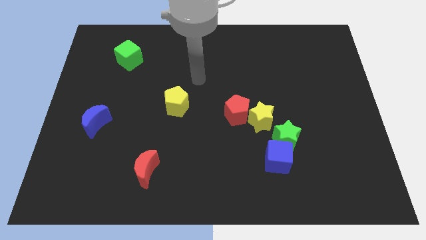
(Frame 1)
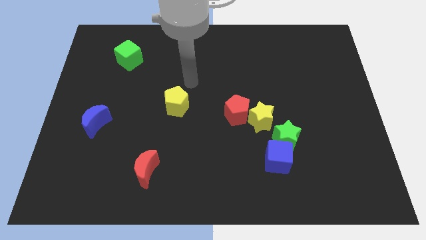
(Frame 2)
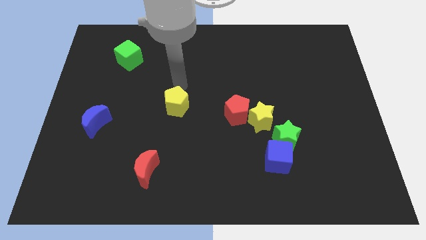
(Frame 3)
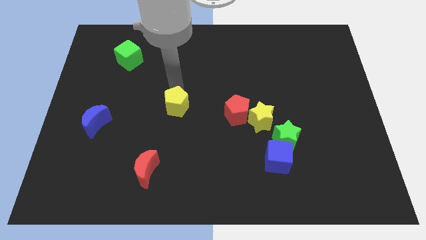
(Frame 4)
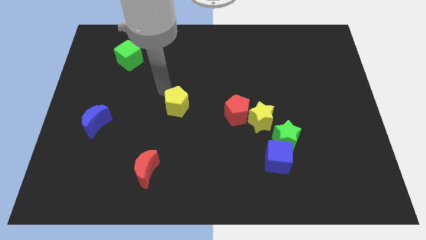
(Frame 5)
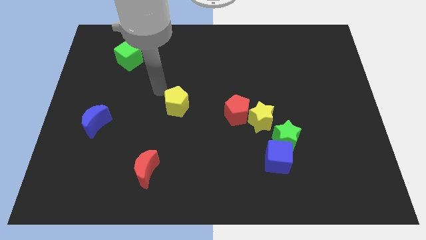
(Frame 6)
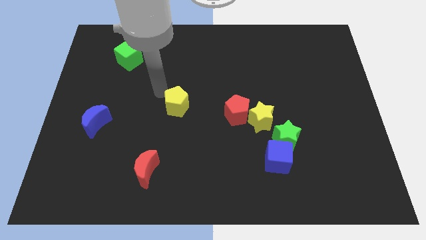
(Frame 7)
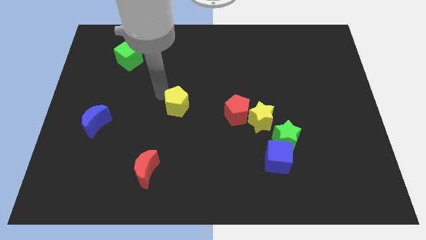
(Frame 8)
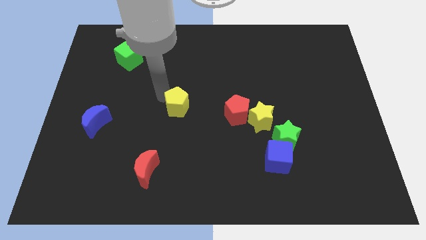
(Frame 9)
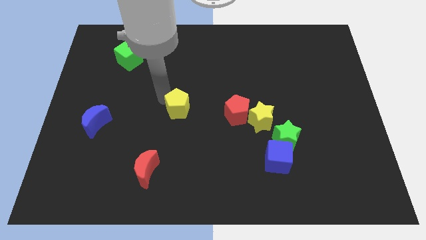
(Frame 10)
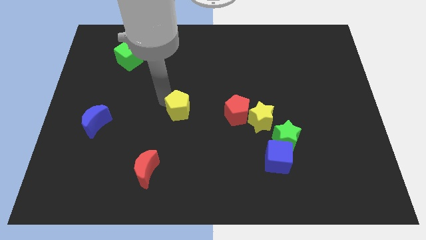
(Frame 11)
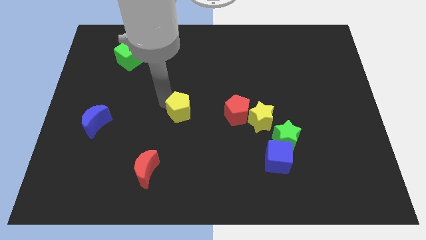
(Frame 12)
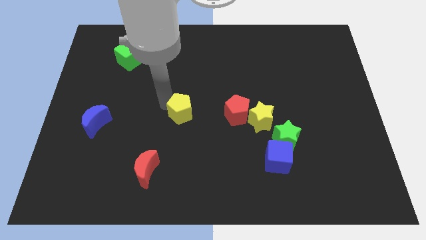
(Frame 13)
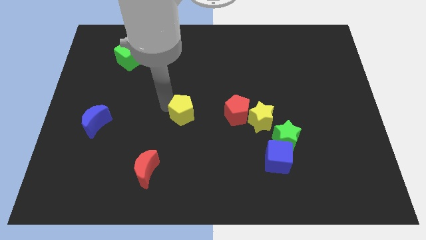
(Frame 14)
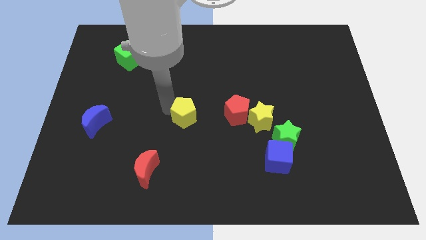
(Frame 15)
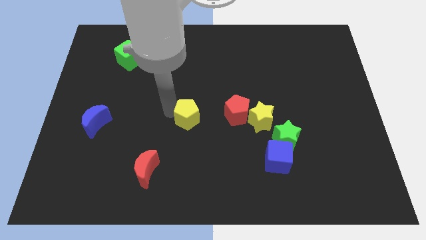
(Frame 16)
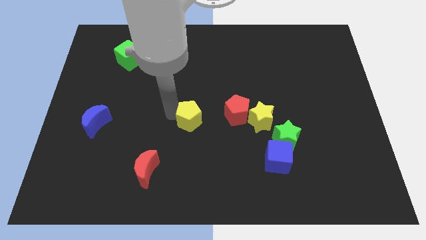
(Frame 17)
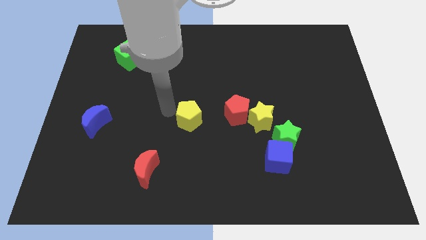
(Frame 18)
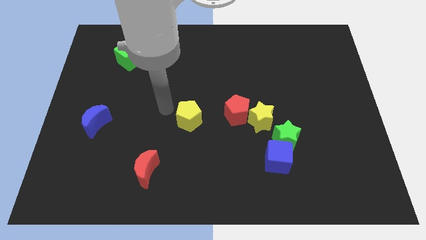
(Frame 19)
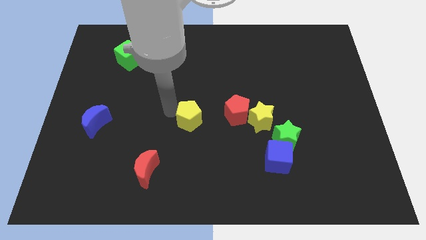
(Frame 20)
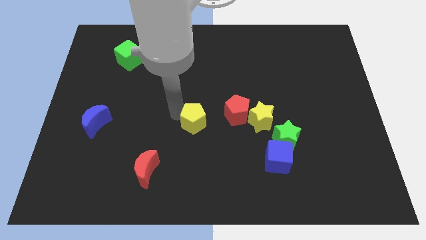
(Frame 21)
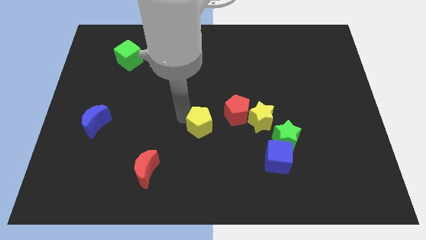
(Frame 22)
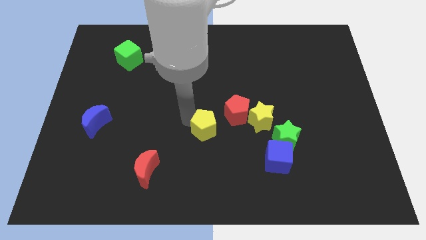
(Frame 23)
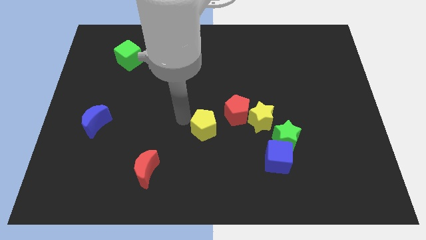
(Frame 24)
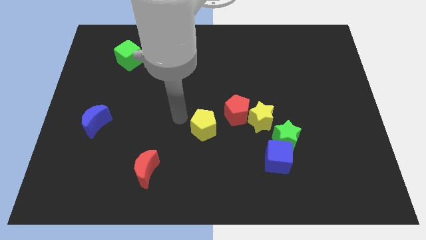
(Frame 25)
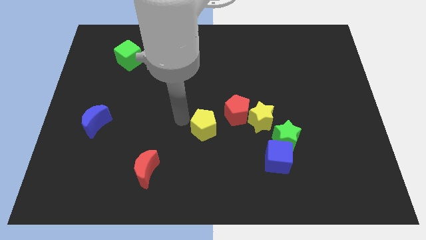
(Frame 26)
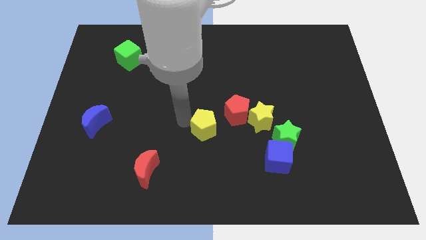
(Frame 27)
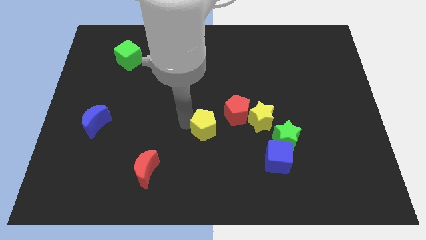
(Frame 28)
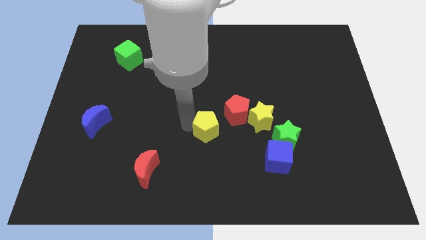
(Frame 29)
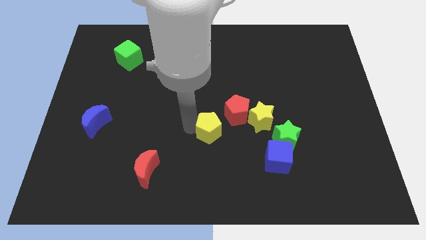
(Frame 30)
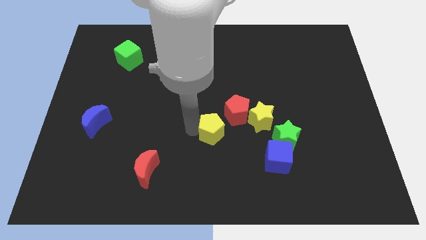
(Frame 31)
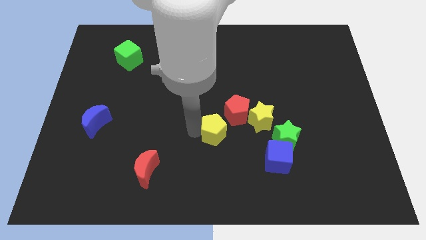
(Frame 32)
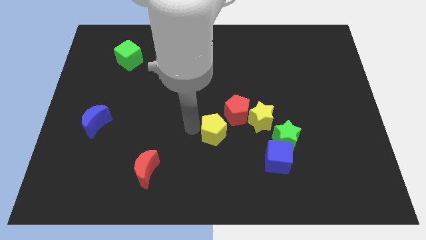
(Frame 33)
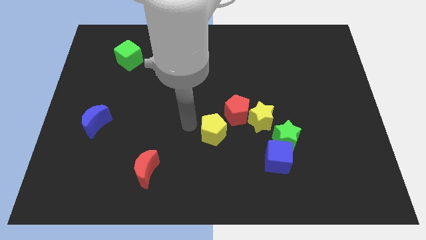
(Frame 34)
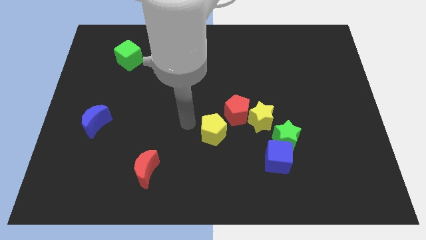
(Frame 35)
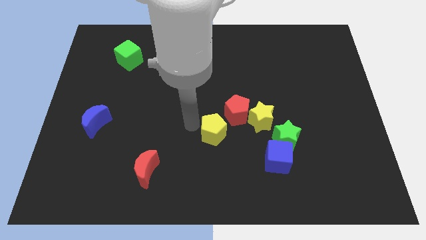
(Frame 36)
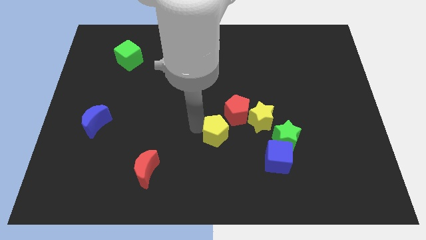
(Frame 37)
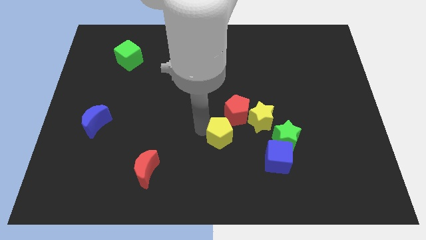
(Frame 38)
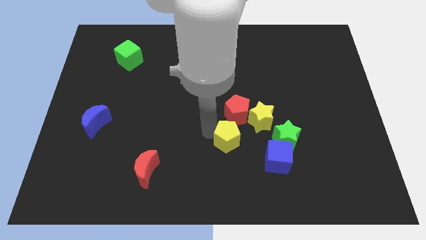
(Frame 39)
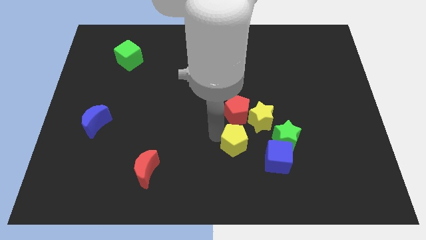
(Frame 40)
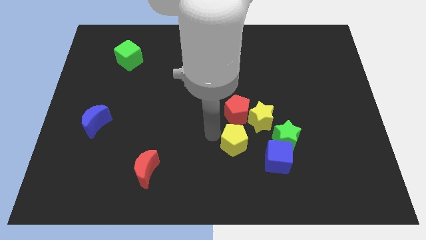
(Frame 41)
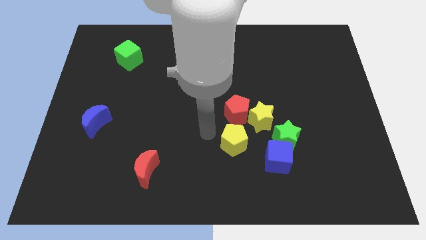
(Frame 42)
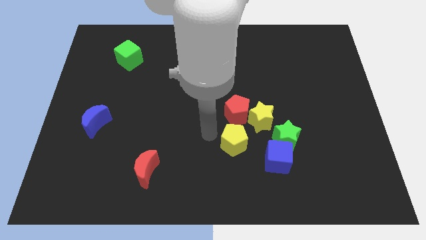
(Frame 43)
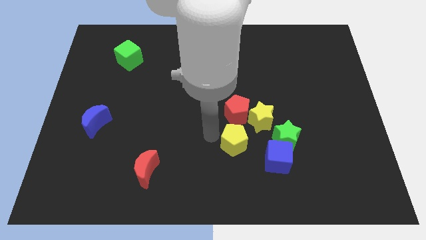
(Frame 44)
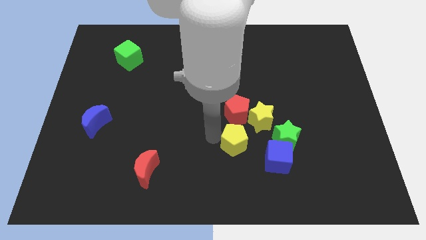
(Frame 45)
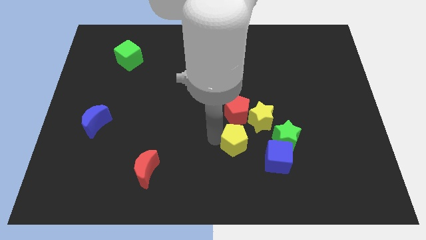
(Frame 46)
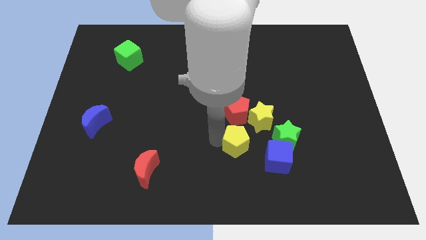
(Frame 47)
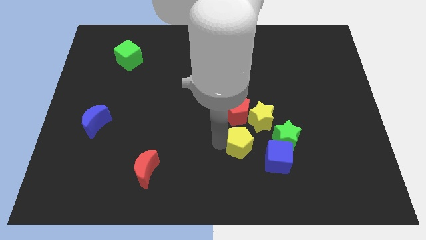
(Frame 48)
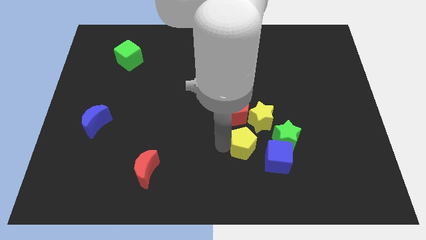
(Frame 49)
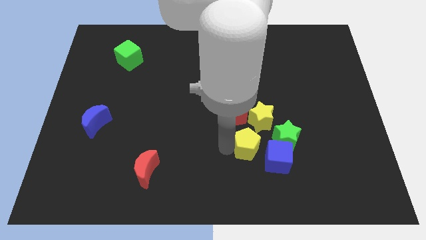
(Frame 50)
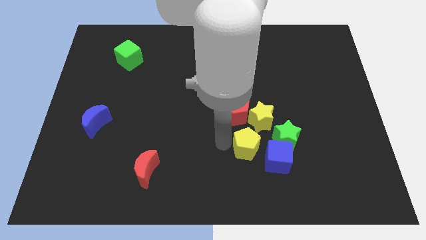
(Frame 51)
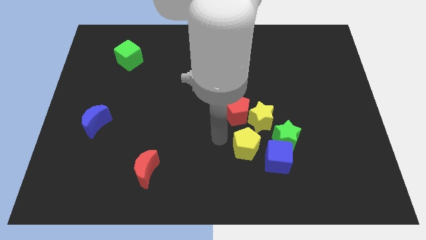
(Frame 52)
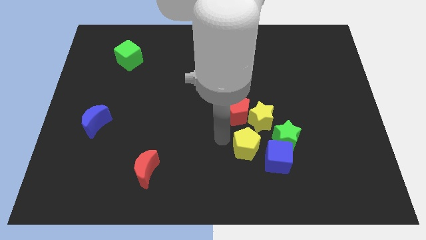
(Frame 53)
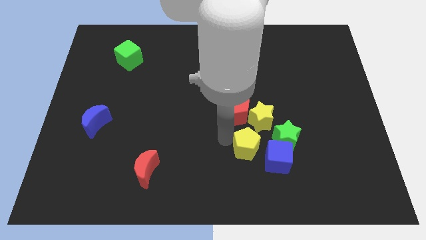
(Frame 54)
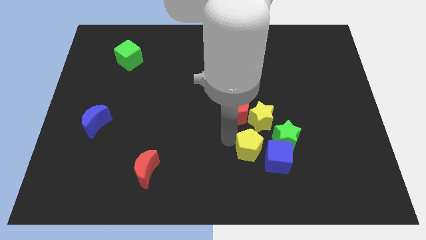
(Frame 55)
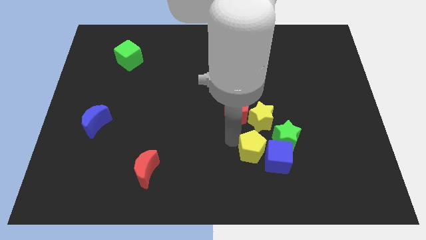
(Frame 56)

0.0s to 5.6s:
slide the yellow pentagon next to the blue cube

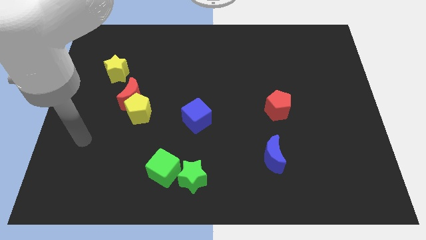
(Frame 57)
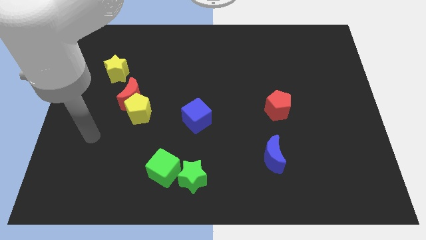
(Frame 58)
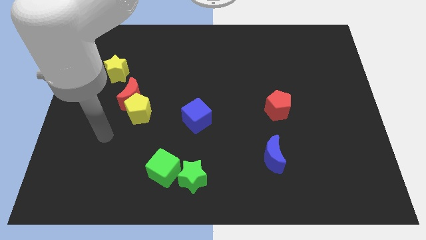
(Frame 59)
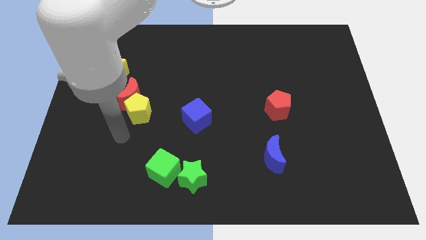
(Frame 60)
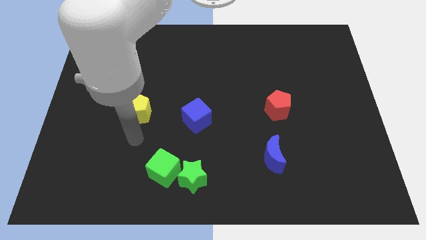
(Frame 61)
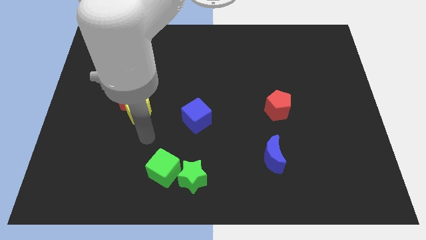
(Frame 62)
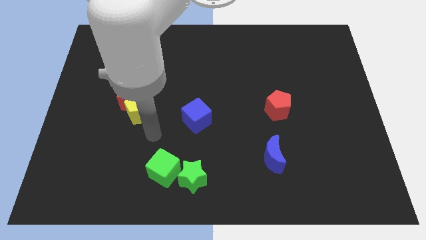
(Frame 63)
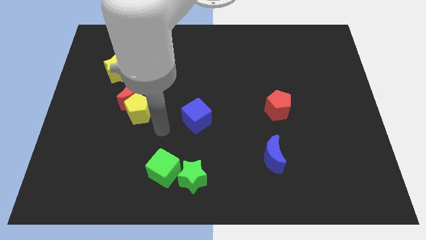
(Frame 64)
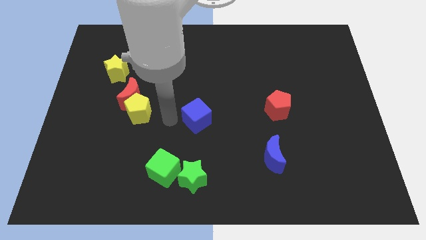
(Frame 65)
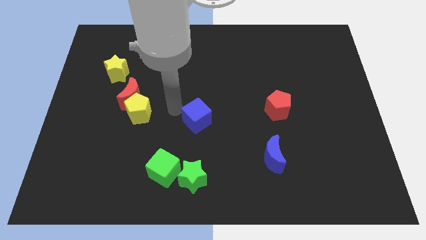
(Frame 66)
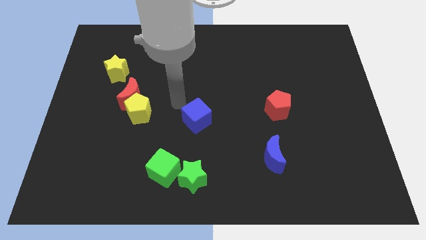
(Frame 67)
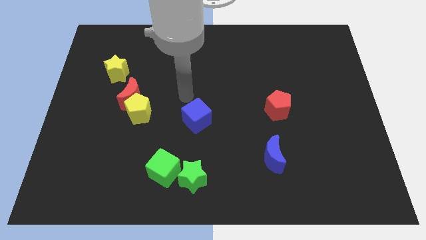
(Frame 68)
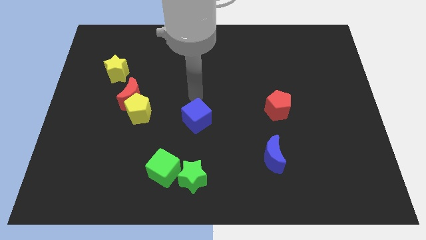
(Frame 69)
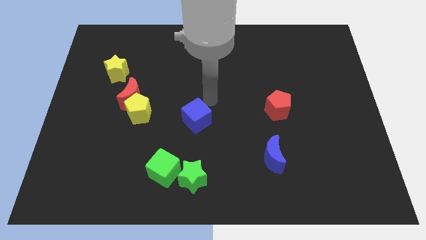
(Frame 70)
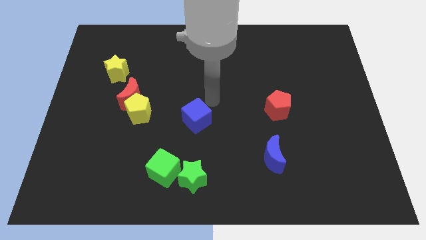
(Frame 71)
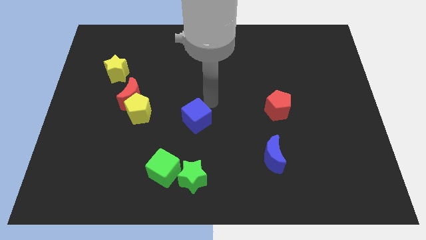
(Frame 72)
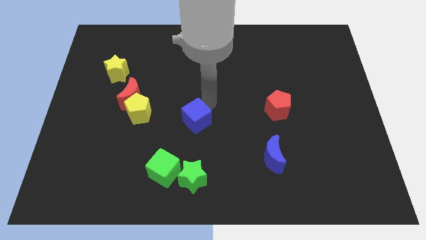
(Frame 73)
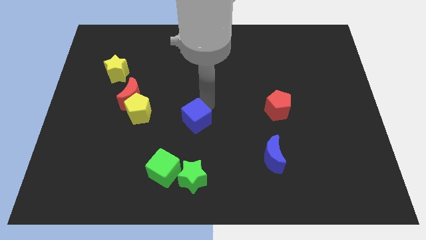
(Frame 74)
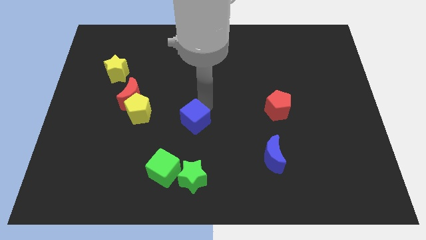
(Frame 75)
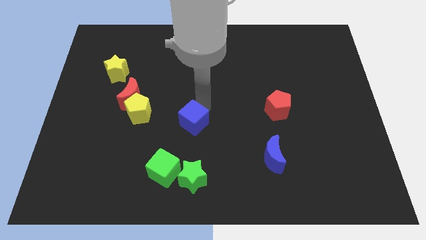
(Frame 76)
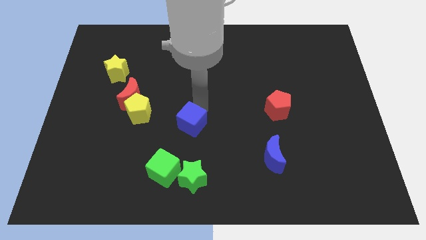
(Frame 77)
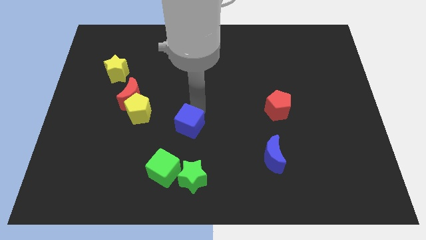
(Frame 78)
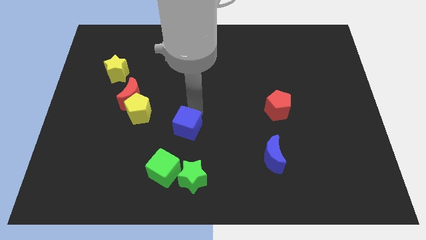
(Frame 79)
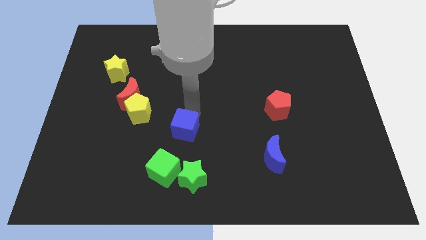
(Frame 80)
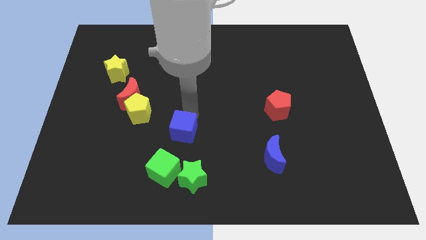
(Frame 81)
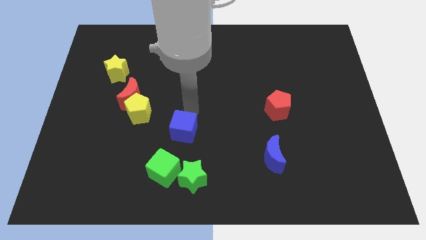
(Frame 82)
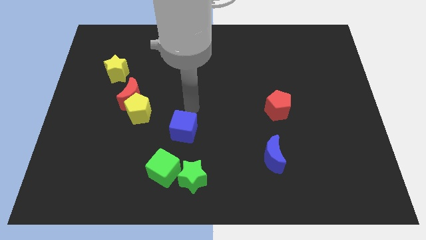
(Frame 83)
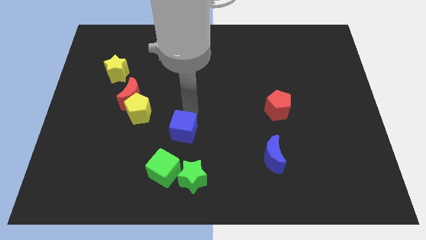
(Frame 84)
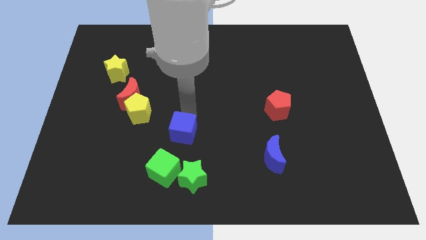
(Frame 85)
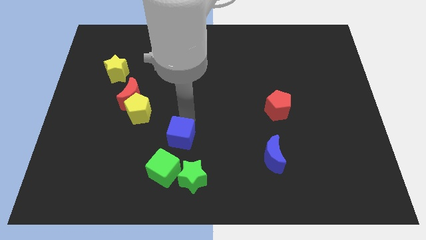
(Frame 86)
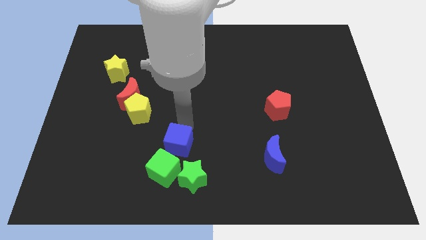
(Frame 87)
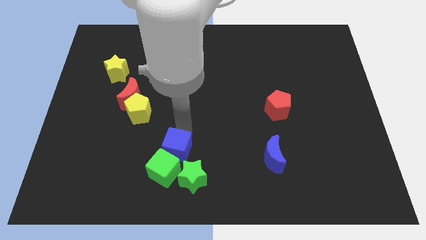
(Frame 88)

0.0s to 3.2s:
push the blue cube next to the green cube
